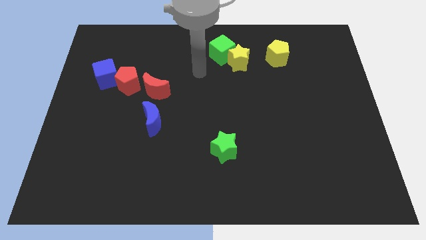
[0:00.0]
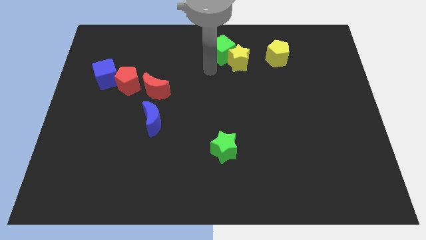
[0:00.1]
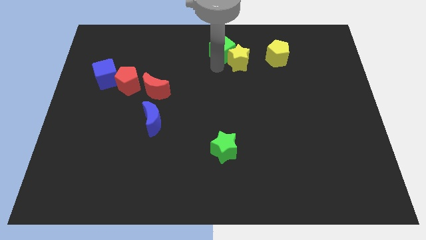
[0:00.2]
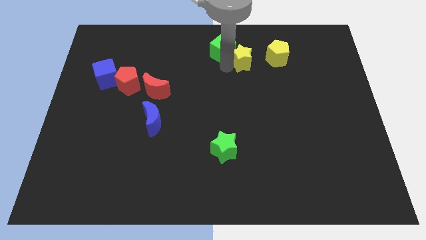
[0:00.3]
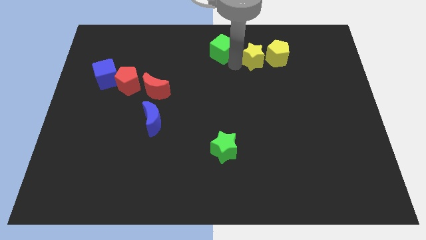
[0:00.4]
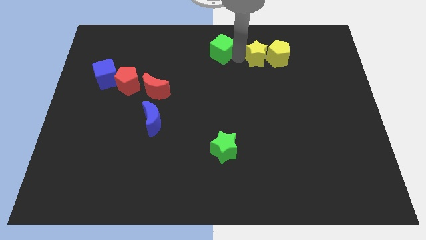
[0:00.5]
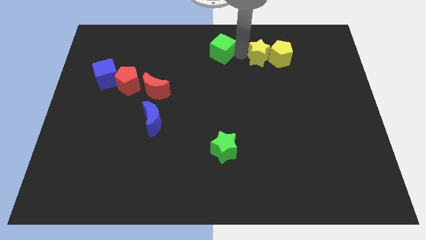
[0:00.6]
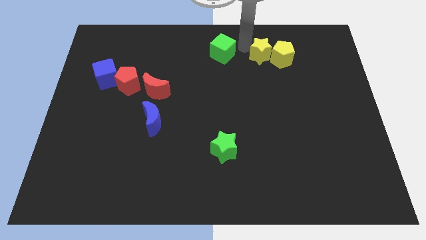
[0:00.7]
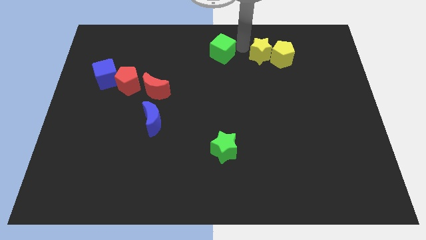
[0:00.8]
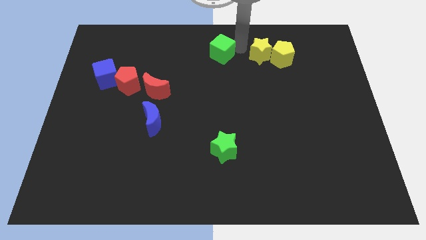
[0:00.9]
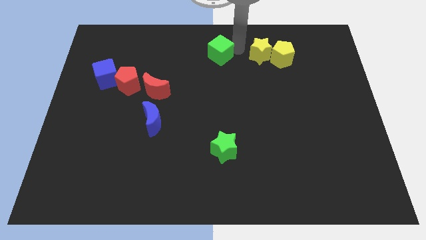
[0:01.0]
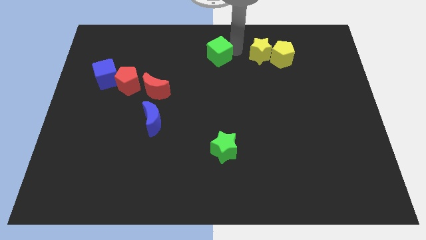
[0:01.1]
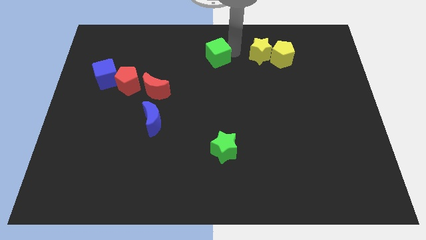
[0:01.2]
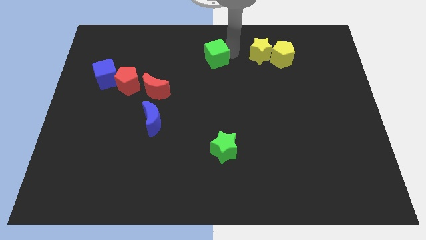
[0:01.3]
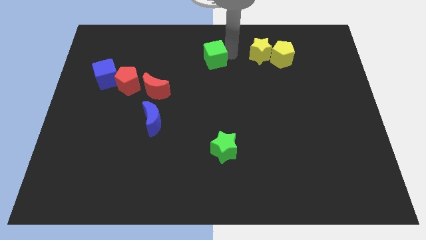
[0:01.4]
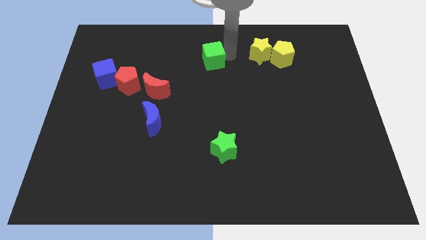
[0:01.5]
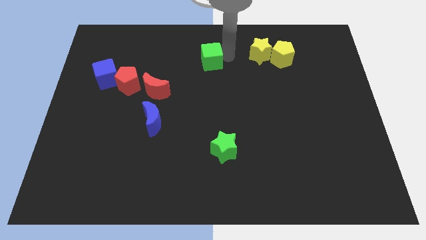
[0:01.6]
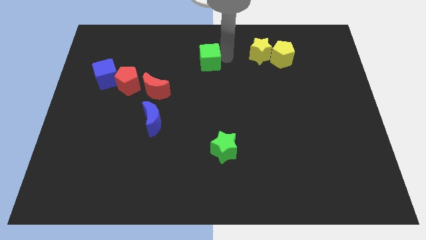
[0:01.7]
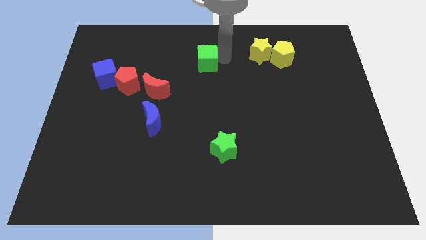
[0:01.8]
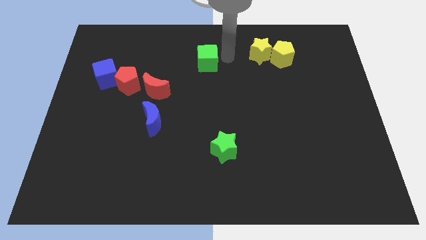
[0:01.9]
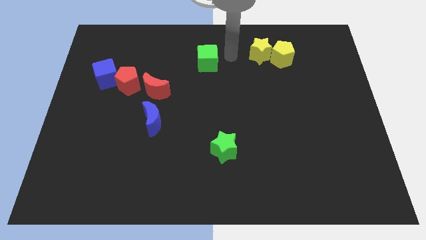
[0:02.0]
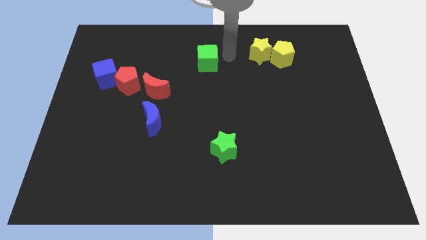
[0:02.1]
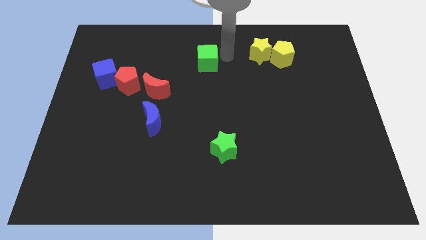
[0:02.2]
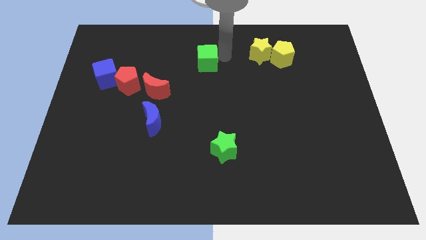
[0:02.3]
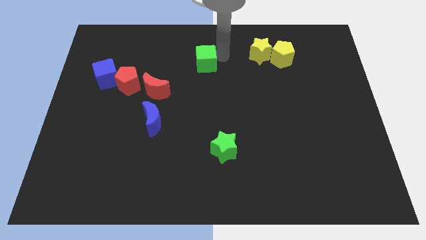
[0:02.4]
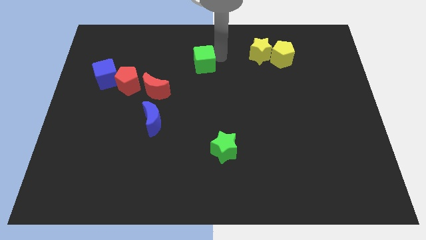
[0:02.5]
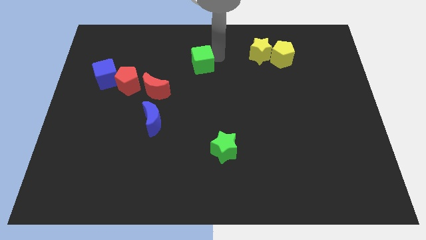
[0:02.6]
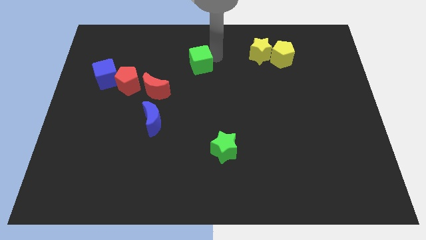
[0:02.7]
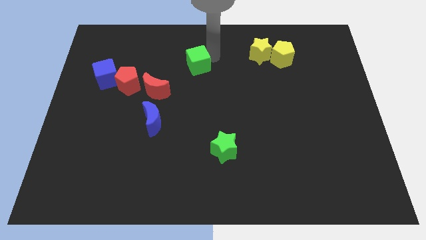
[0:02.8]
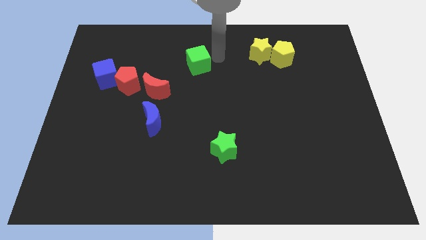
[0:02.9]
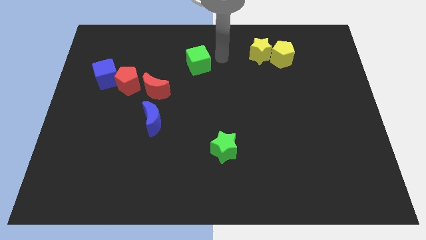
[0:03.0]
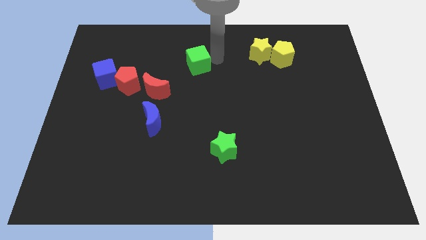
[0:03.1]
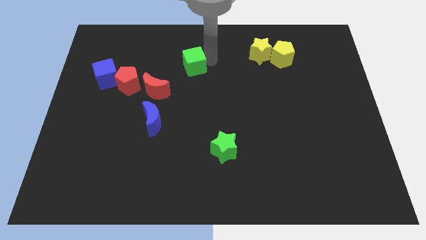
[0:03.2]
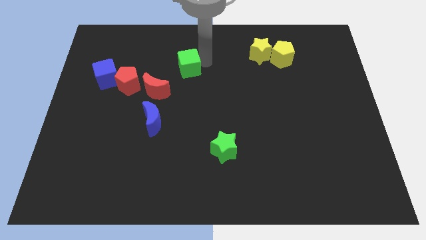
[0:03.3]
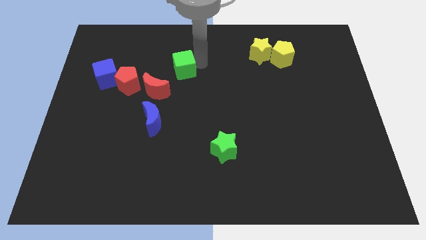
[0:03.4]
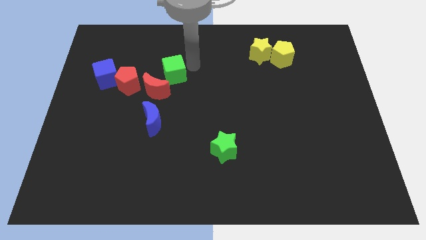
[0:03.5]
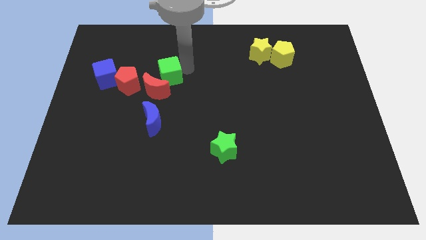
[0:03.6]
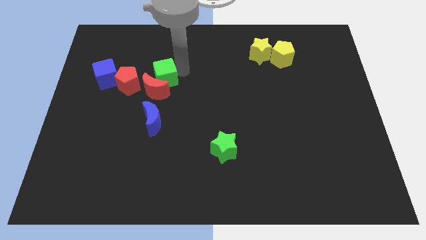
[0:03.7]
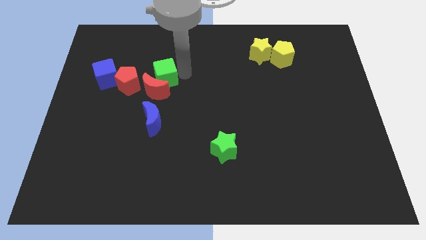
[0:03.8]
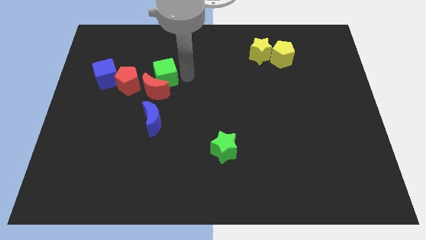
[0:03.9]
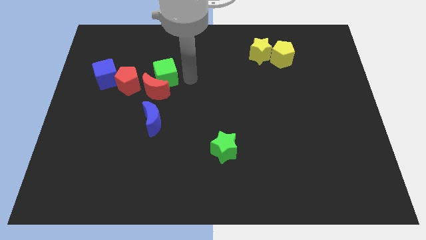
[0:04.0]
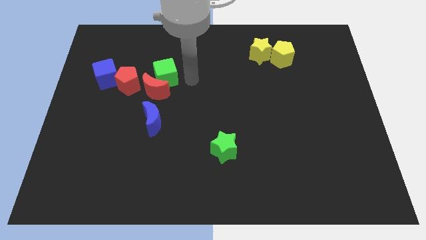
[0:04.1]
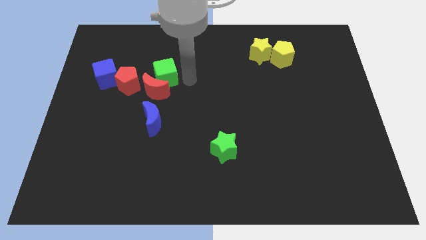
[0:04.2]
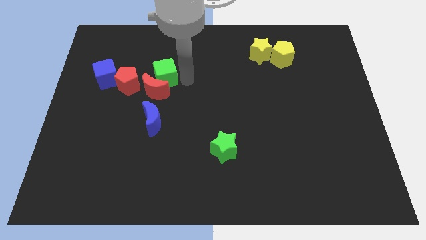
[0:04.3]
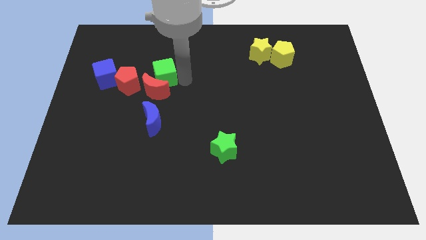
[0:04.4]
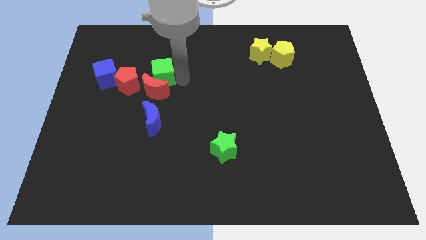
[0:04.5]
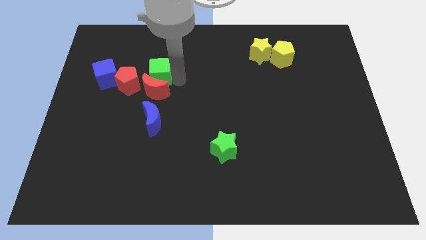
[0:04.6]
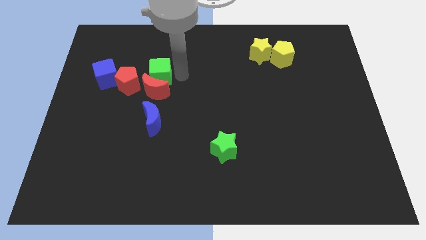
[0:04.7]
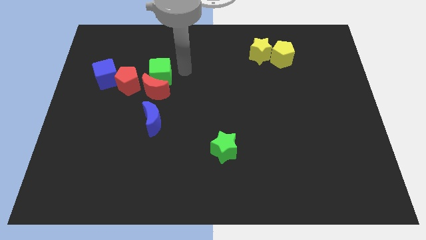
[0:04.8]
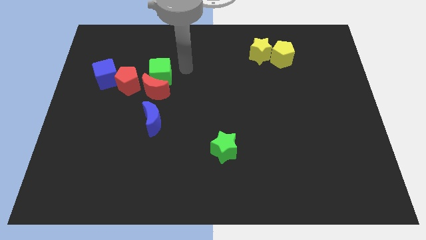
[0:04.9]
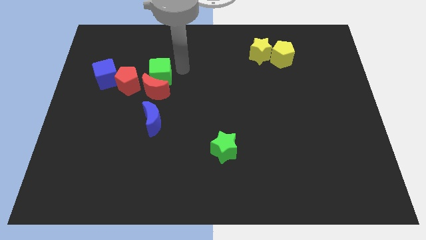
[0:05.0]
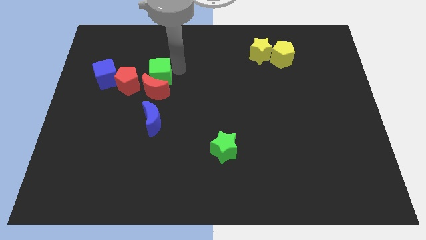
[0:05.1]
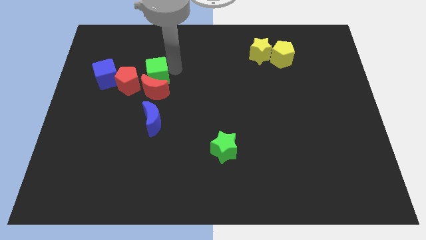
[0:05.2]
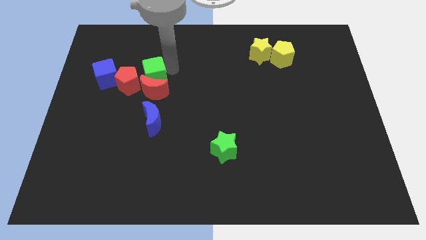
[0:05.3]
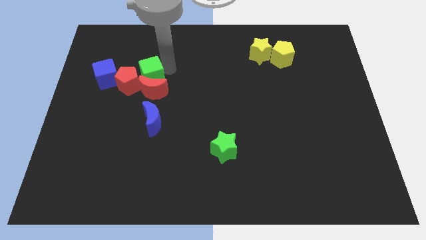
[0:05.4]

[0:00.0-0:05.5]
slide the green cube to the red pentagon

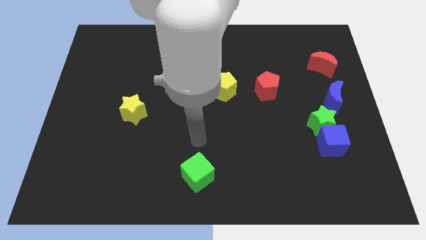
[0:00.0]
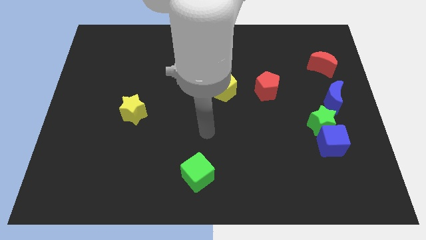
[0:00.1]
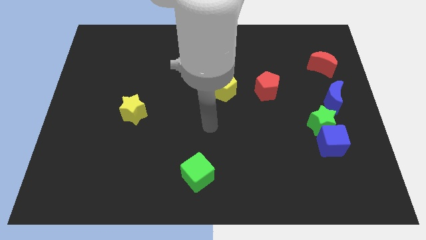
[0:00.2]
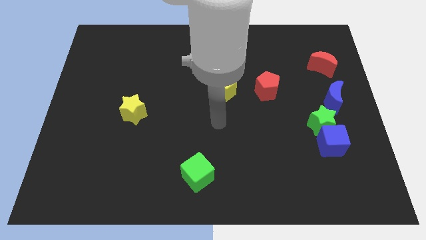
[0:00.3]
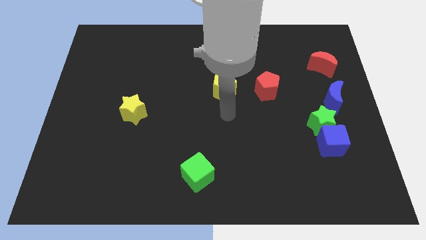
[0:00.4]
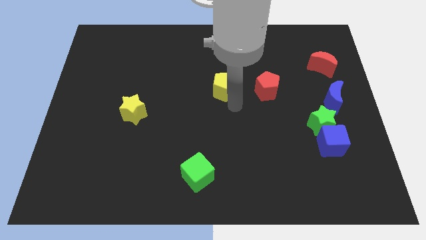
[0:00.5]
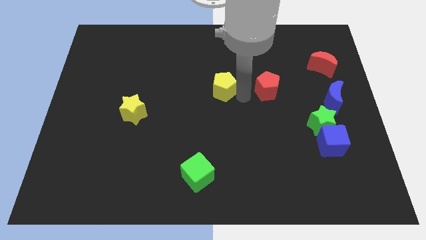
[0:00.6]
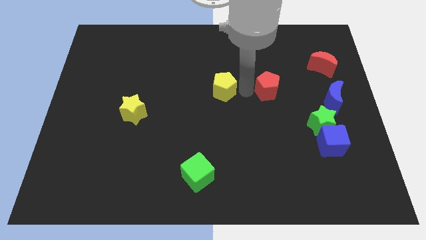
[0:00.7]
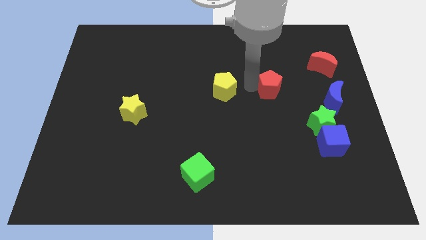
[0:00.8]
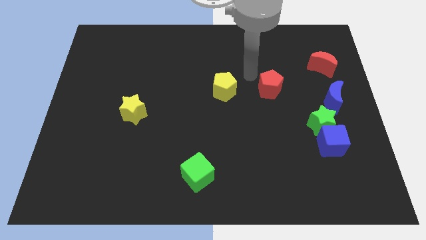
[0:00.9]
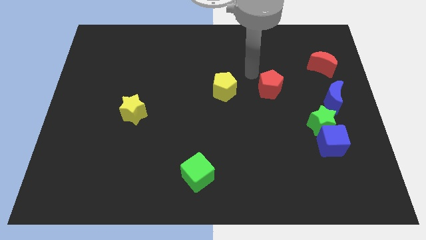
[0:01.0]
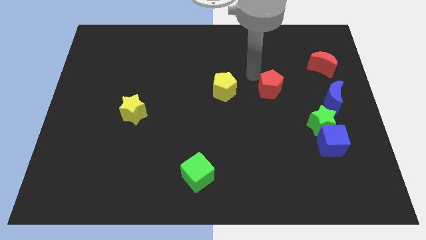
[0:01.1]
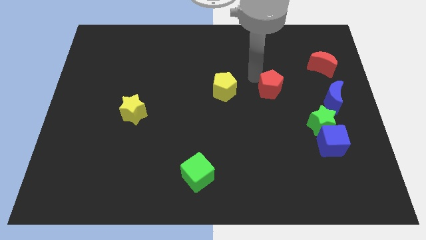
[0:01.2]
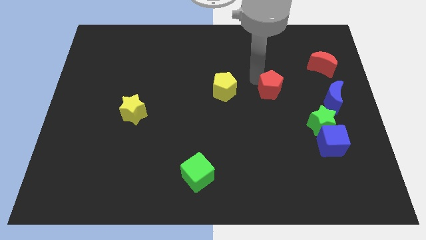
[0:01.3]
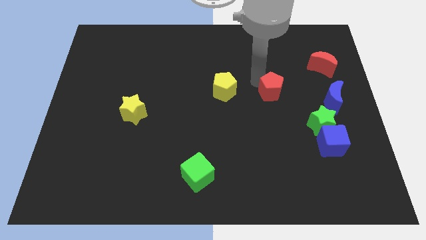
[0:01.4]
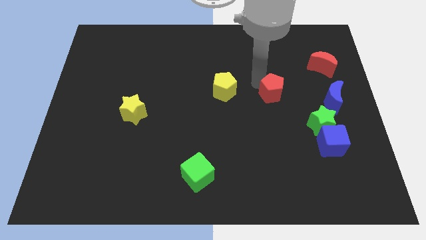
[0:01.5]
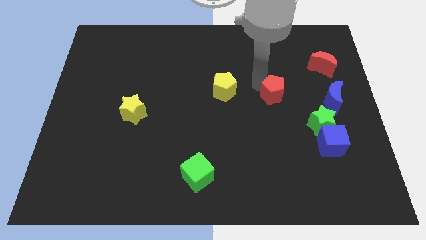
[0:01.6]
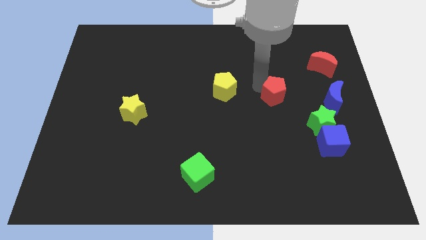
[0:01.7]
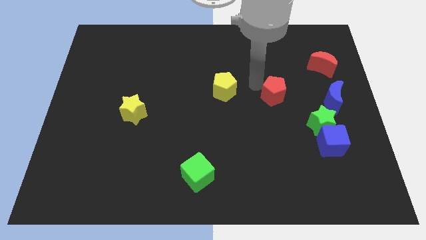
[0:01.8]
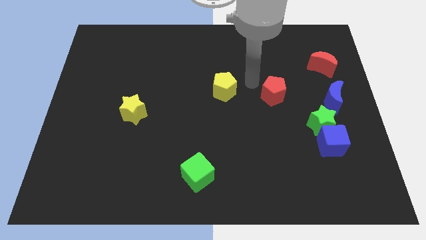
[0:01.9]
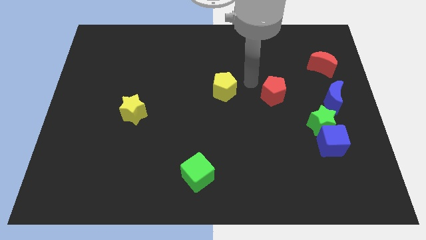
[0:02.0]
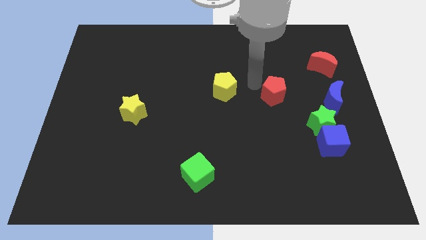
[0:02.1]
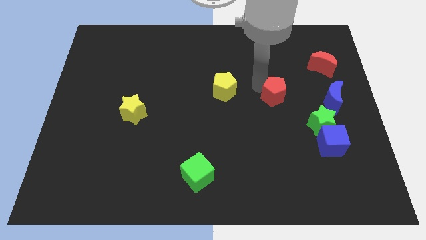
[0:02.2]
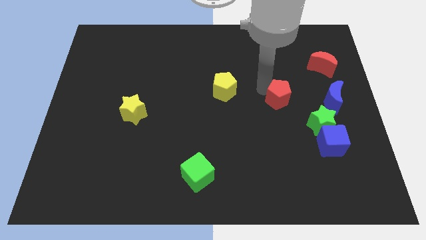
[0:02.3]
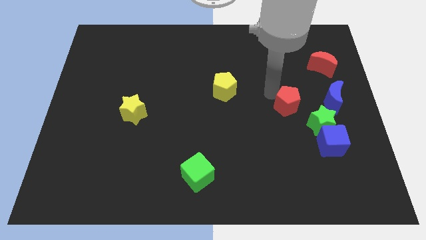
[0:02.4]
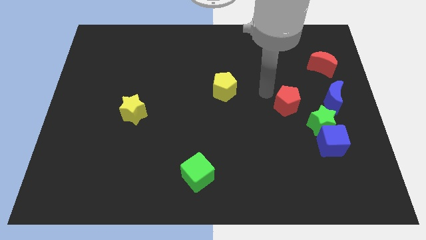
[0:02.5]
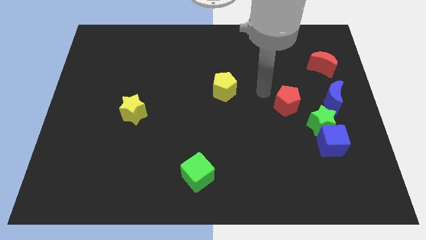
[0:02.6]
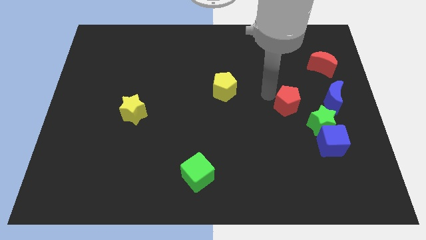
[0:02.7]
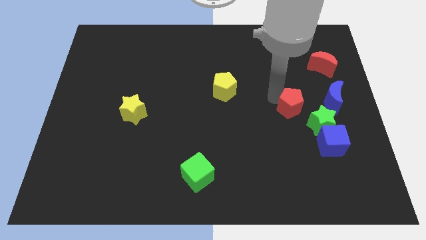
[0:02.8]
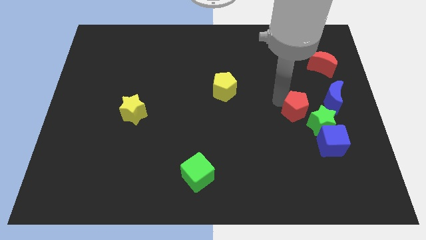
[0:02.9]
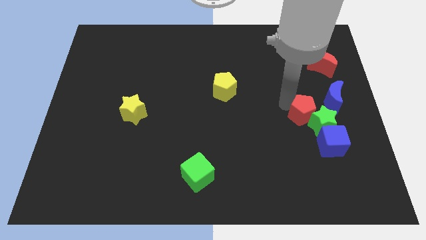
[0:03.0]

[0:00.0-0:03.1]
slide the red pentagon close to the green star
